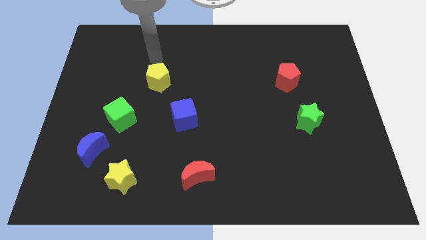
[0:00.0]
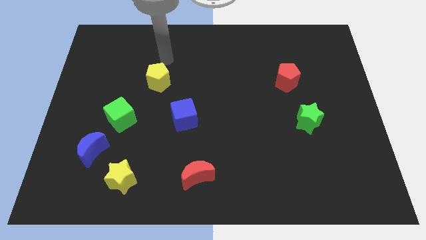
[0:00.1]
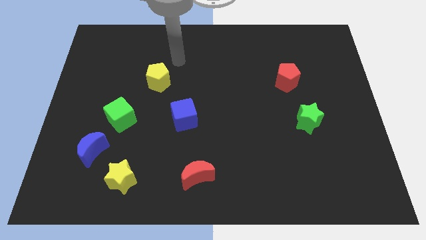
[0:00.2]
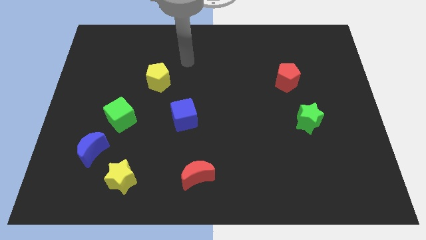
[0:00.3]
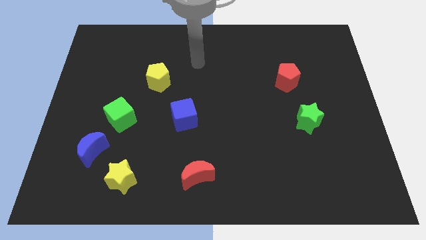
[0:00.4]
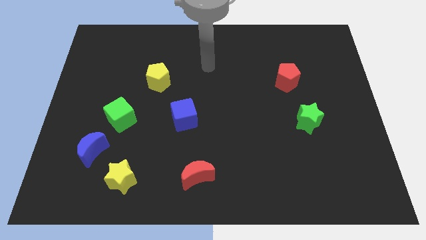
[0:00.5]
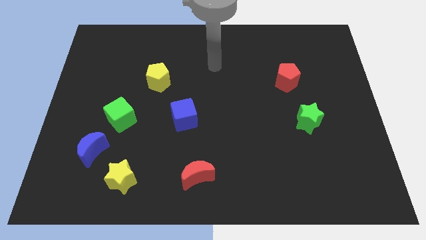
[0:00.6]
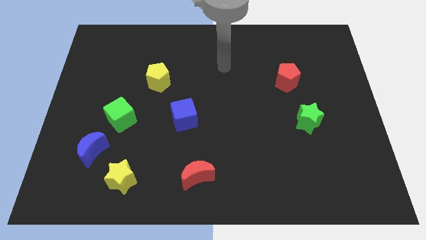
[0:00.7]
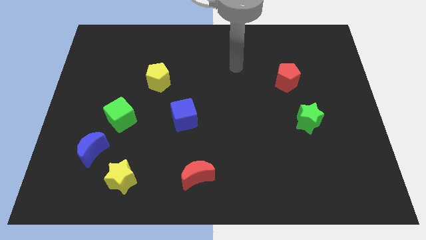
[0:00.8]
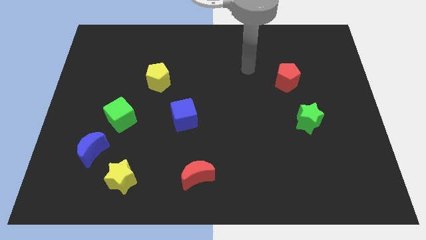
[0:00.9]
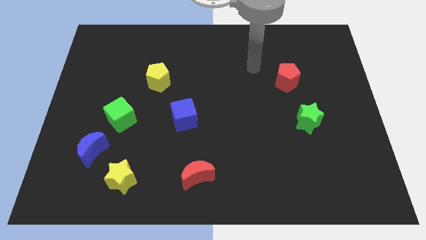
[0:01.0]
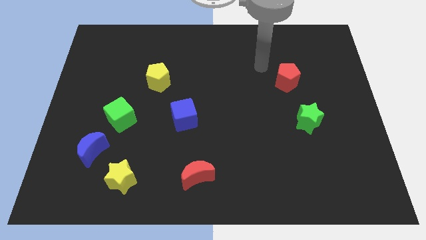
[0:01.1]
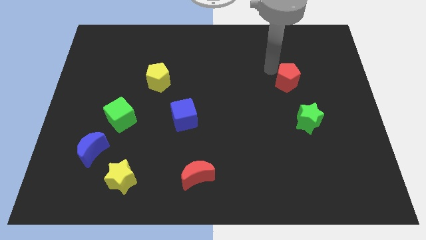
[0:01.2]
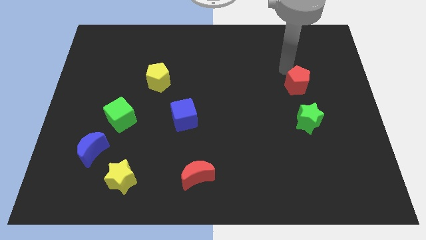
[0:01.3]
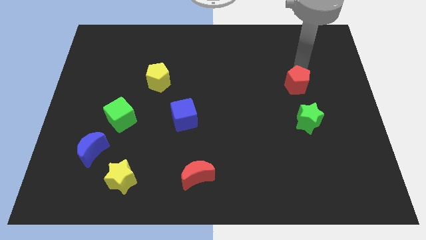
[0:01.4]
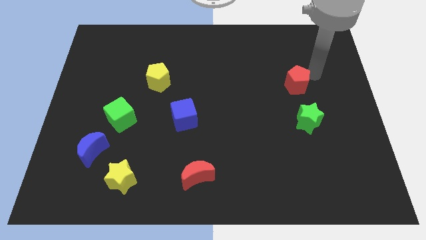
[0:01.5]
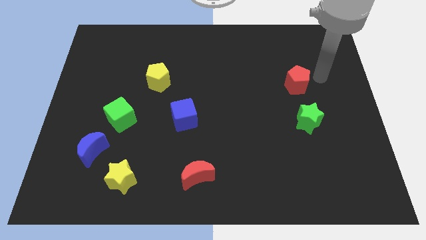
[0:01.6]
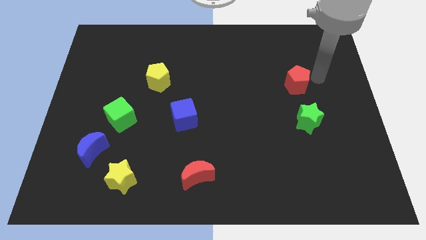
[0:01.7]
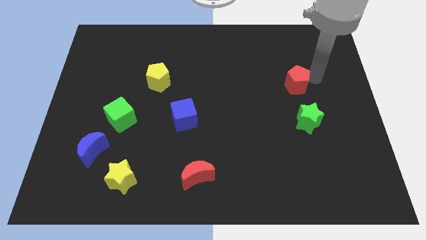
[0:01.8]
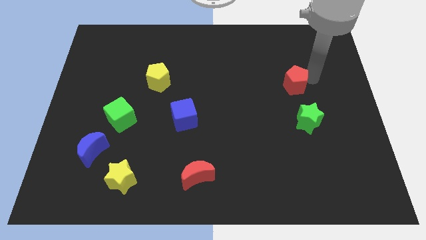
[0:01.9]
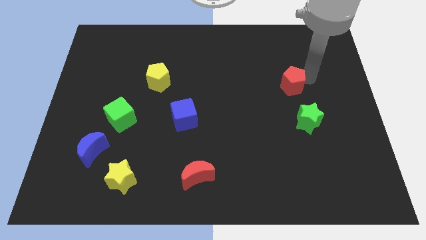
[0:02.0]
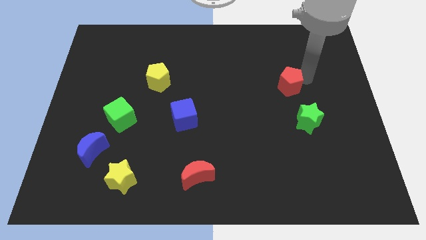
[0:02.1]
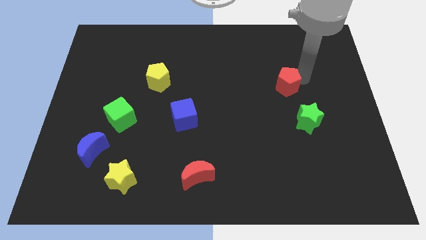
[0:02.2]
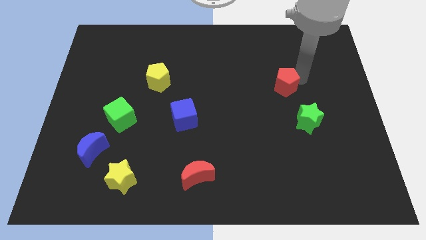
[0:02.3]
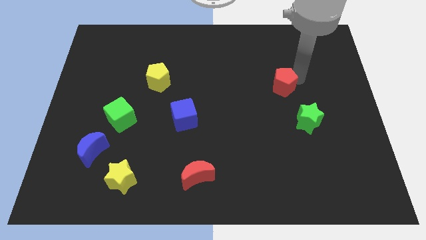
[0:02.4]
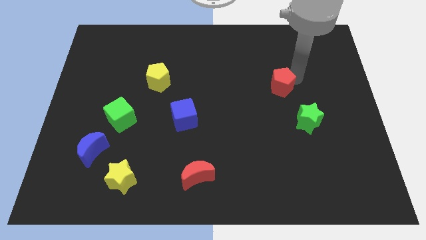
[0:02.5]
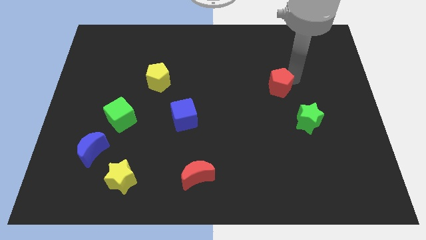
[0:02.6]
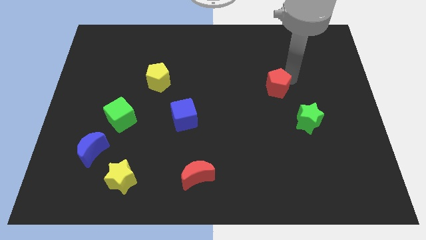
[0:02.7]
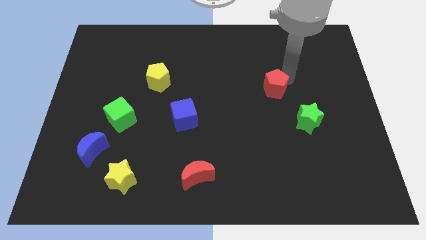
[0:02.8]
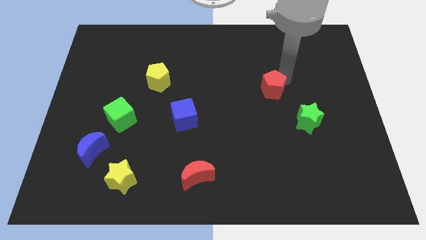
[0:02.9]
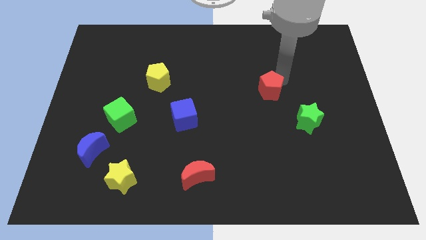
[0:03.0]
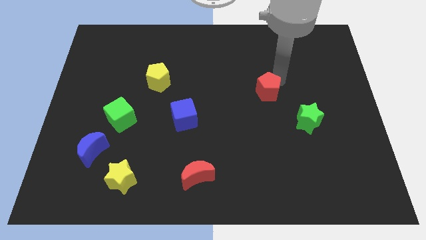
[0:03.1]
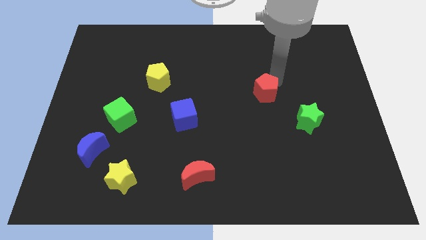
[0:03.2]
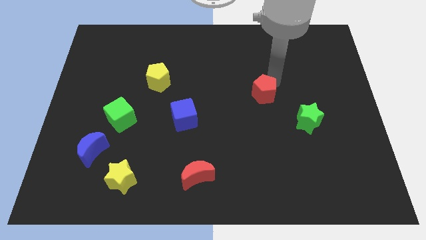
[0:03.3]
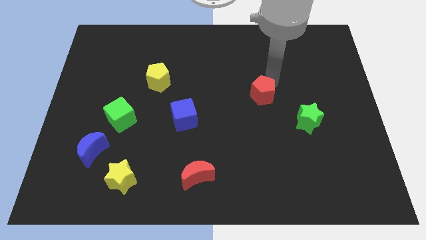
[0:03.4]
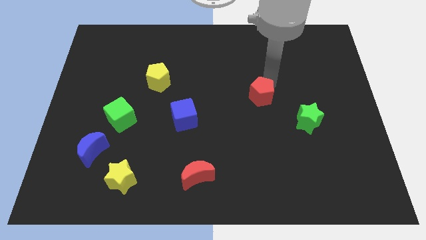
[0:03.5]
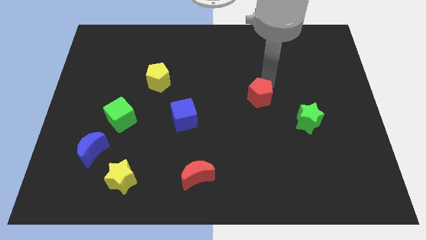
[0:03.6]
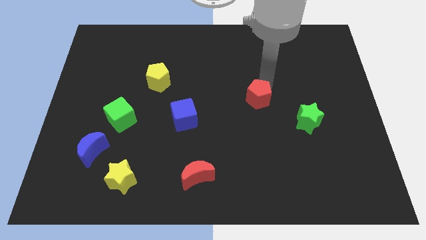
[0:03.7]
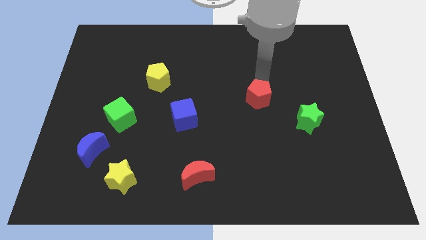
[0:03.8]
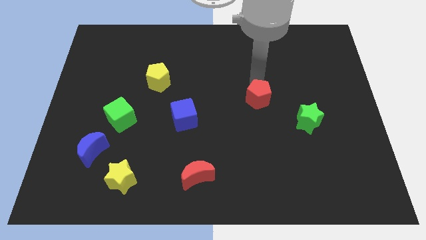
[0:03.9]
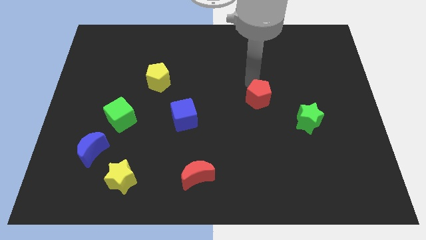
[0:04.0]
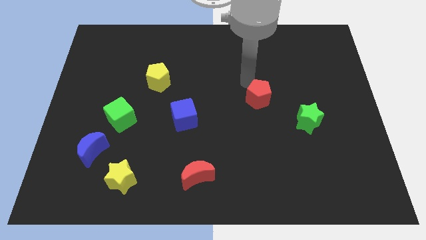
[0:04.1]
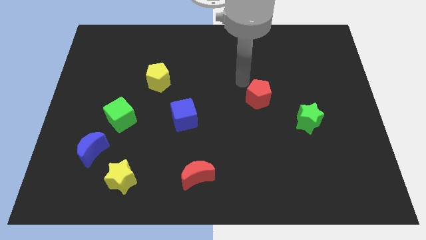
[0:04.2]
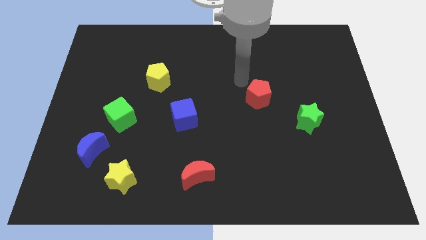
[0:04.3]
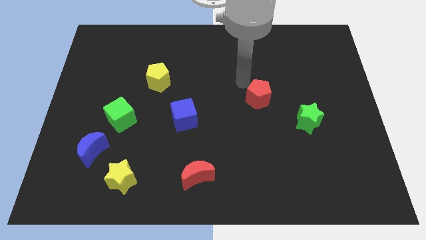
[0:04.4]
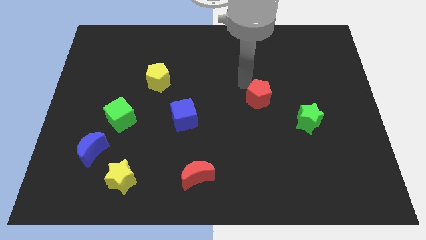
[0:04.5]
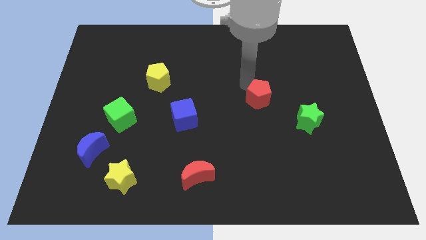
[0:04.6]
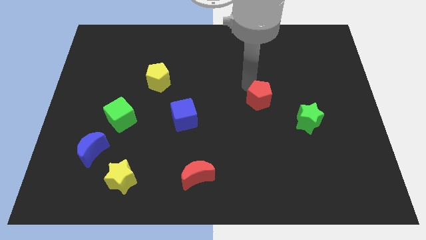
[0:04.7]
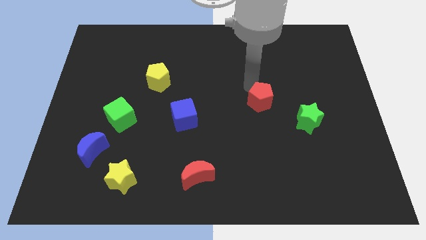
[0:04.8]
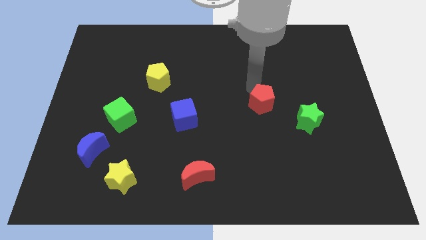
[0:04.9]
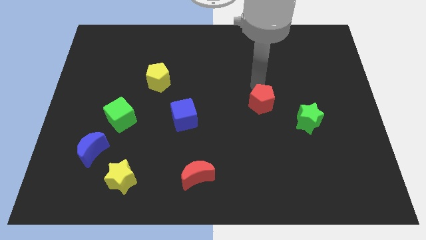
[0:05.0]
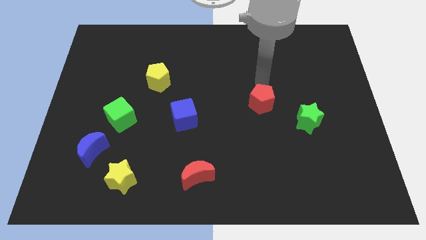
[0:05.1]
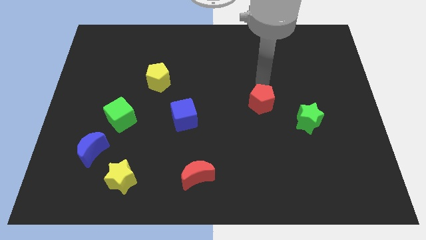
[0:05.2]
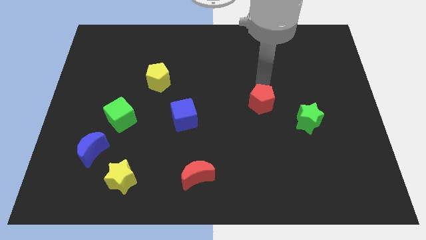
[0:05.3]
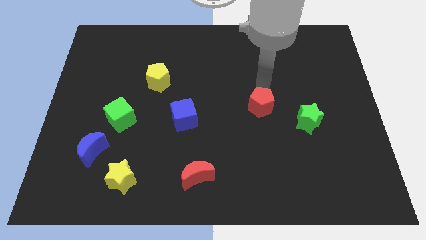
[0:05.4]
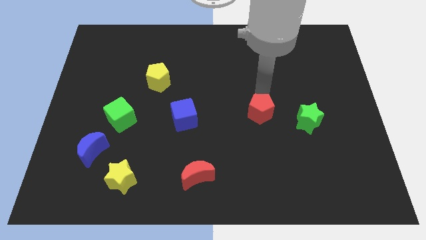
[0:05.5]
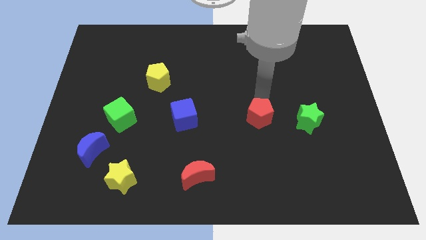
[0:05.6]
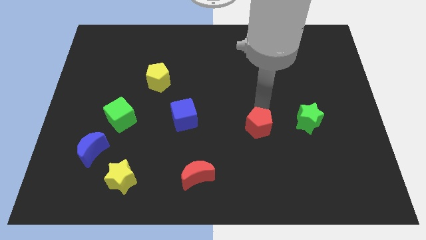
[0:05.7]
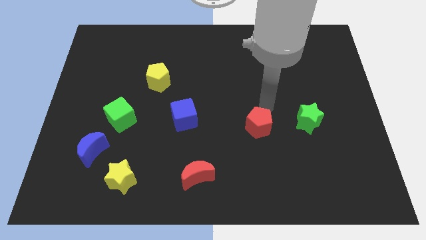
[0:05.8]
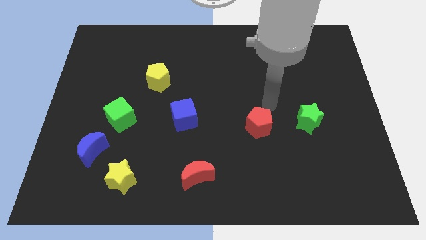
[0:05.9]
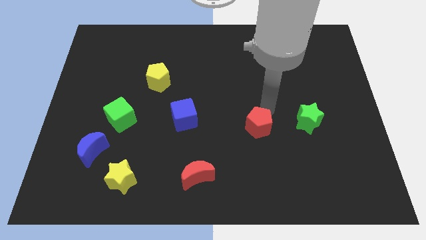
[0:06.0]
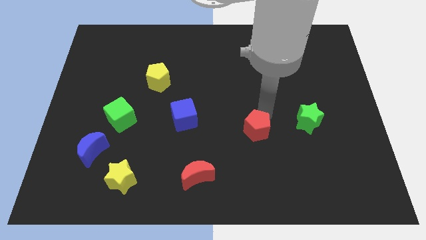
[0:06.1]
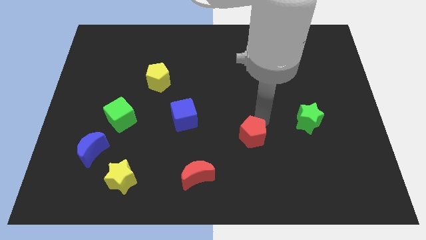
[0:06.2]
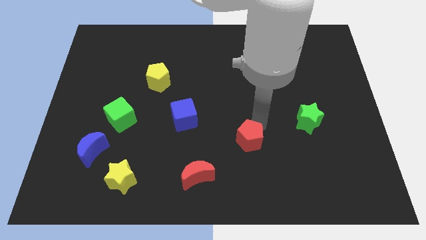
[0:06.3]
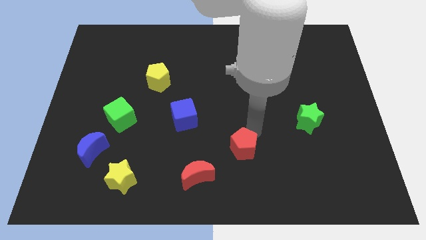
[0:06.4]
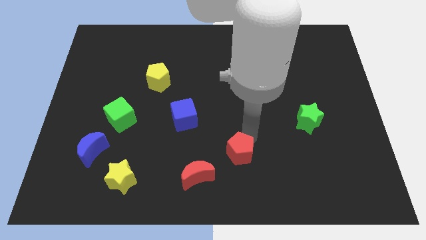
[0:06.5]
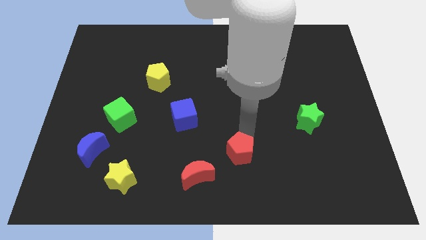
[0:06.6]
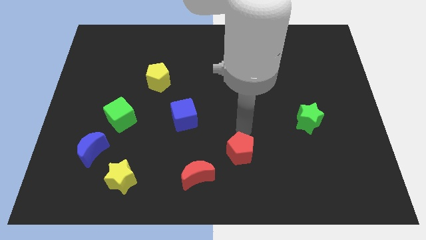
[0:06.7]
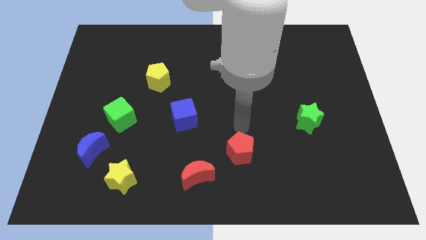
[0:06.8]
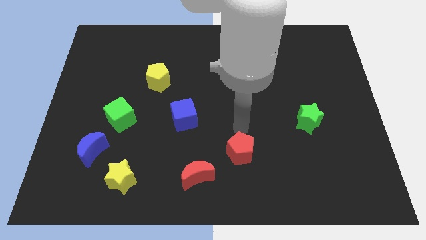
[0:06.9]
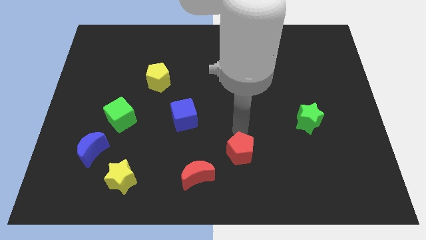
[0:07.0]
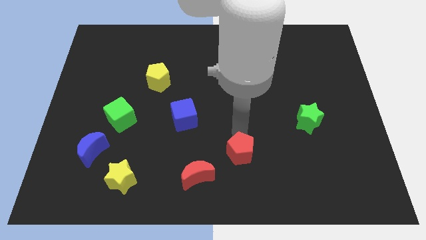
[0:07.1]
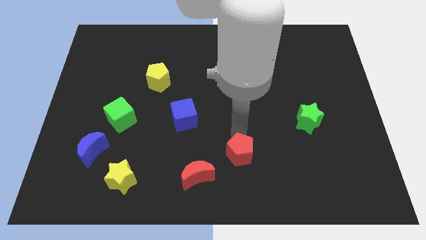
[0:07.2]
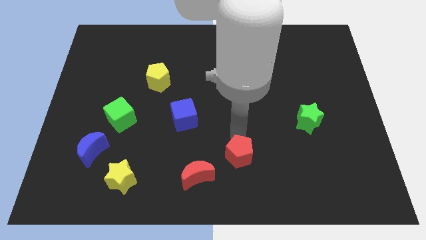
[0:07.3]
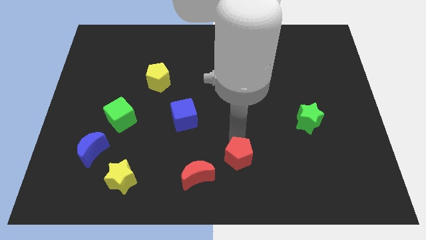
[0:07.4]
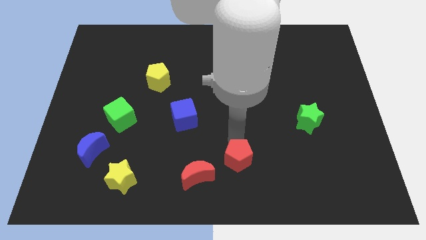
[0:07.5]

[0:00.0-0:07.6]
slide the red pentagon to the bottom side
